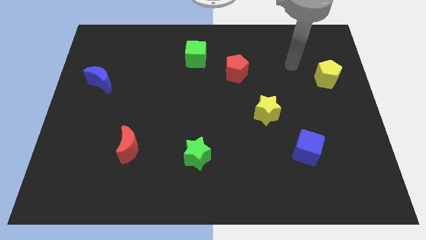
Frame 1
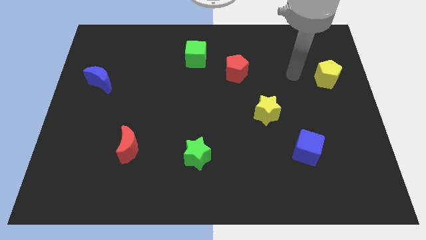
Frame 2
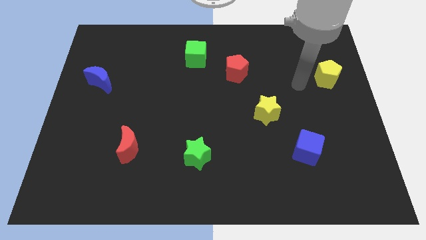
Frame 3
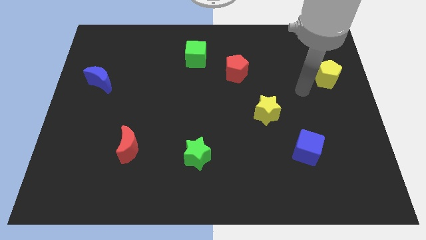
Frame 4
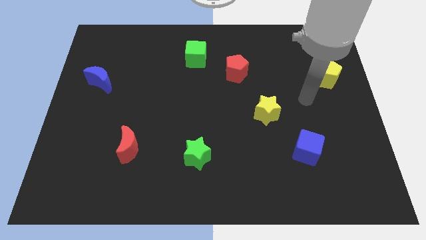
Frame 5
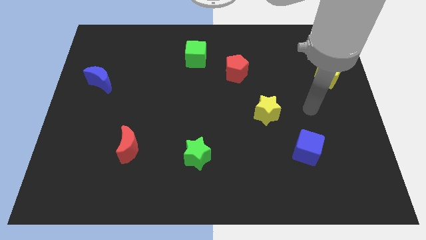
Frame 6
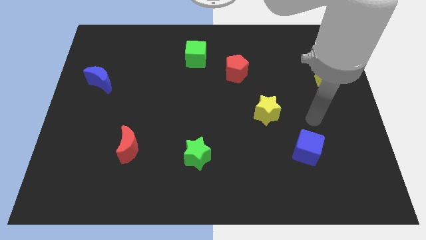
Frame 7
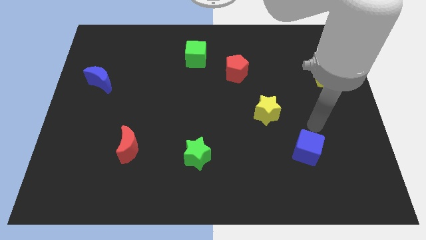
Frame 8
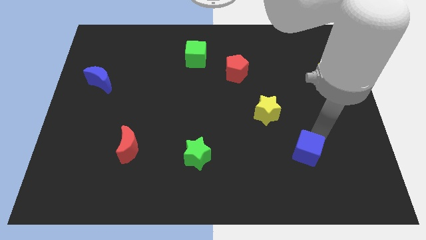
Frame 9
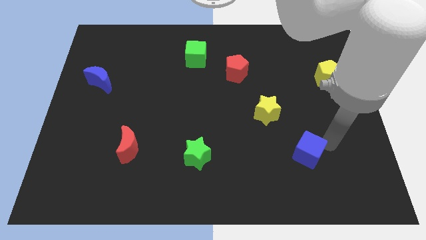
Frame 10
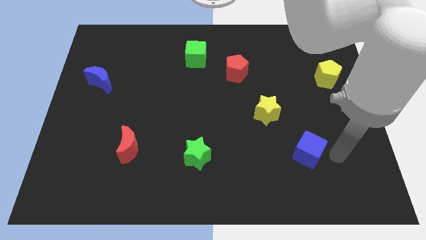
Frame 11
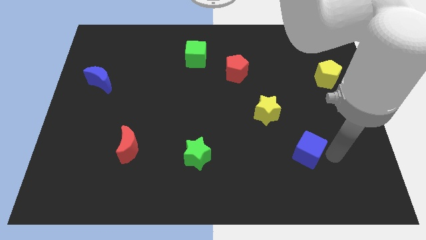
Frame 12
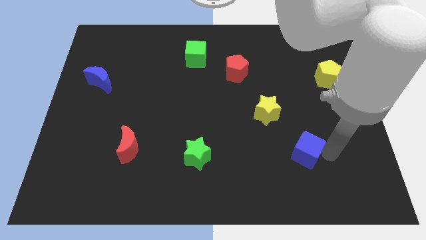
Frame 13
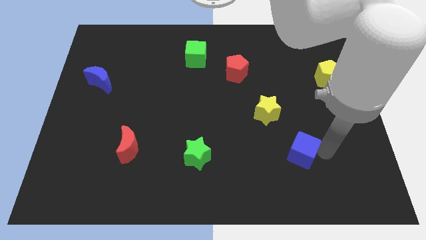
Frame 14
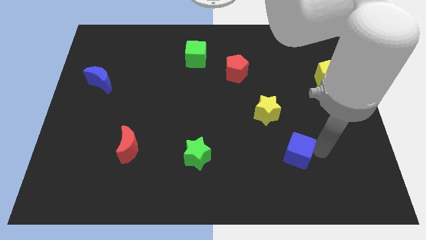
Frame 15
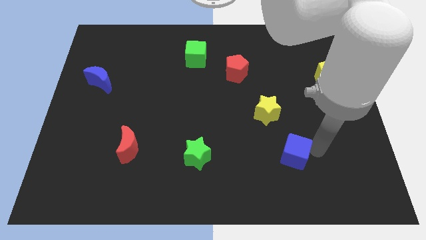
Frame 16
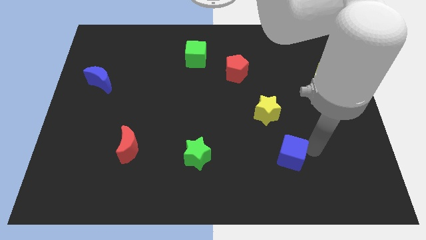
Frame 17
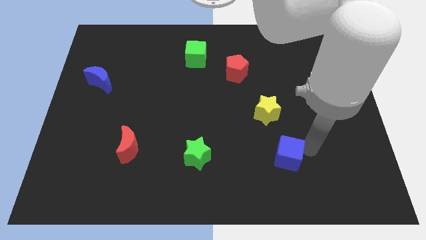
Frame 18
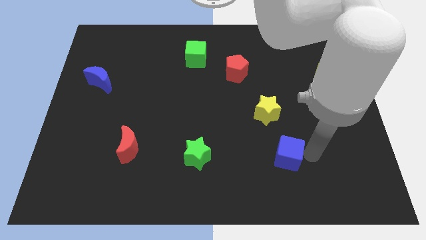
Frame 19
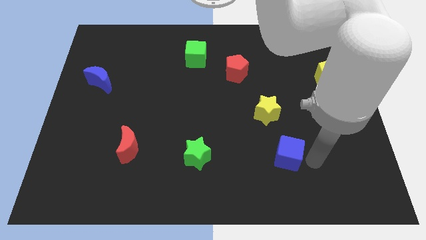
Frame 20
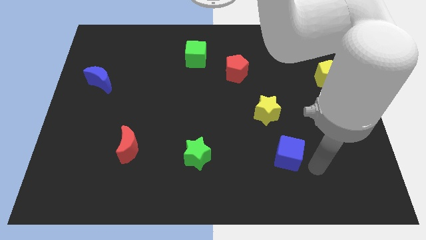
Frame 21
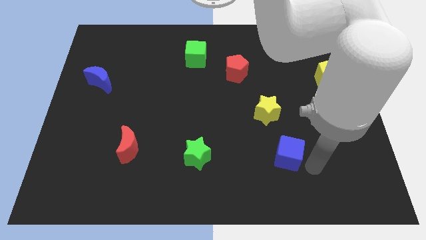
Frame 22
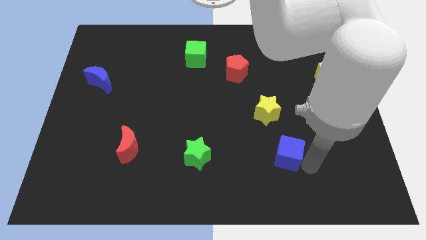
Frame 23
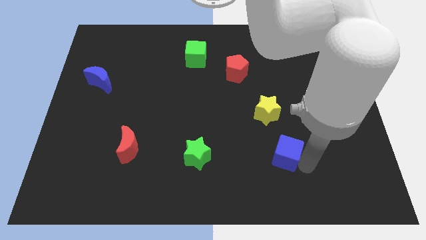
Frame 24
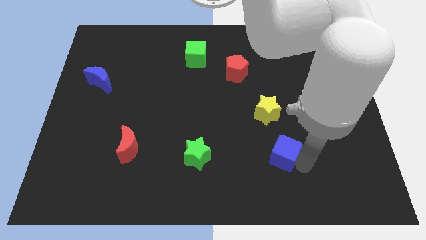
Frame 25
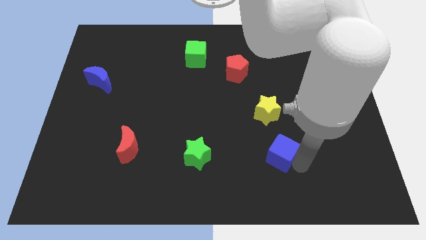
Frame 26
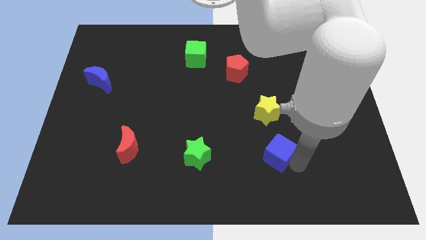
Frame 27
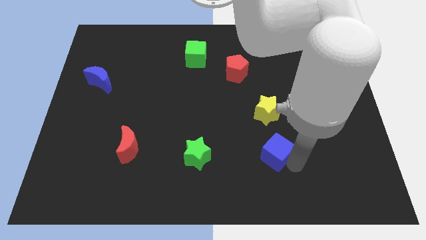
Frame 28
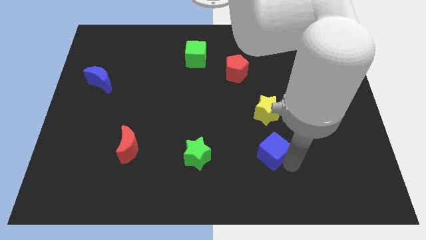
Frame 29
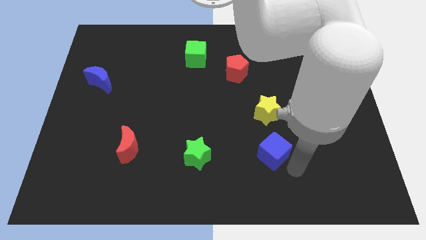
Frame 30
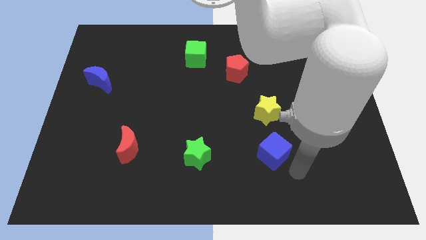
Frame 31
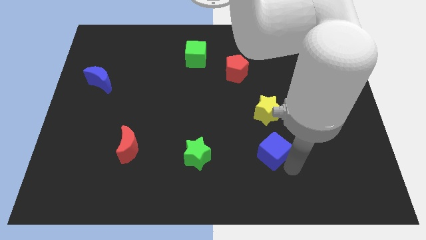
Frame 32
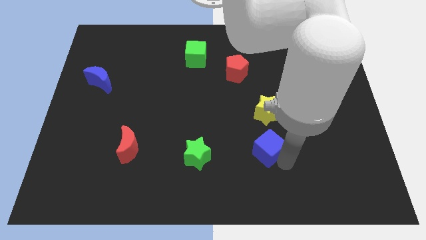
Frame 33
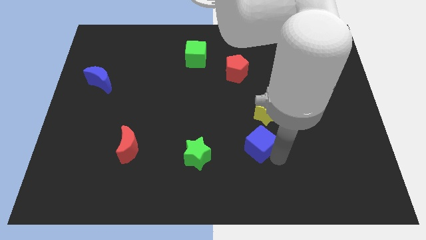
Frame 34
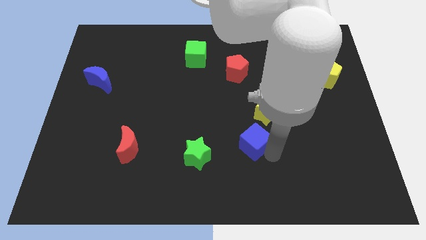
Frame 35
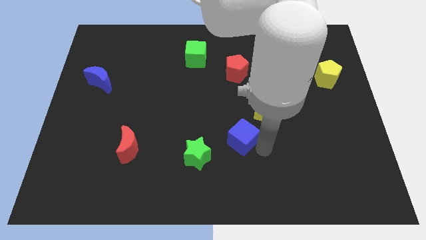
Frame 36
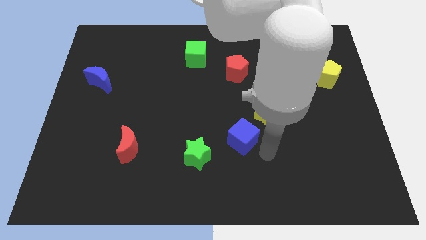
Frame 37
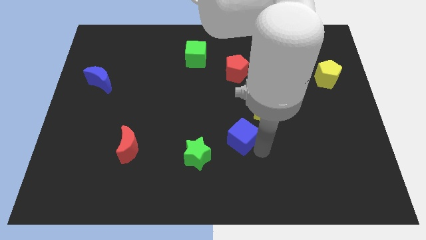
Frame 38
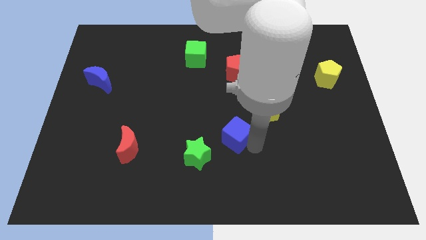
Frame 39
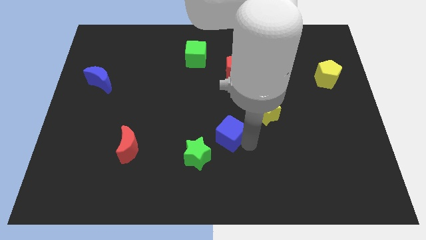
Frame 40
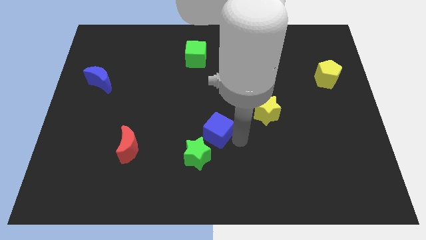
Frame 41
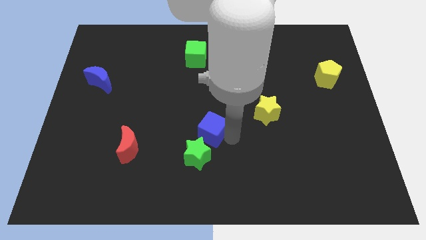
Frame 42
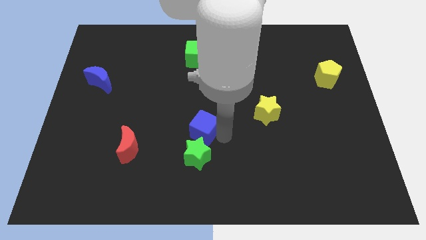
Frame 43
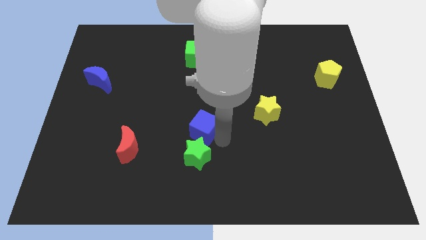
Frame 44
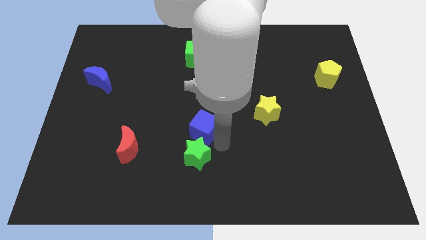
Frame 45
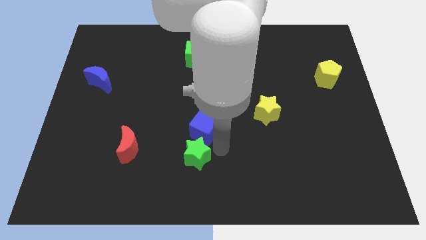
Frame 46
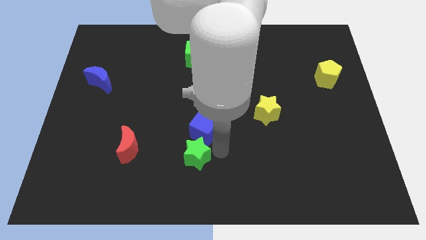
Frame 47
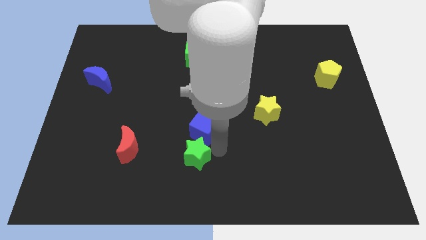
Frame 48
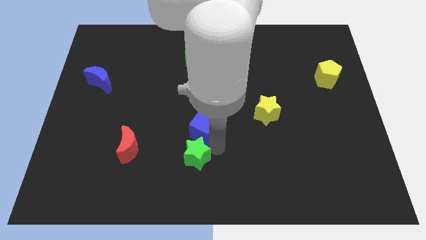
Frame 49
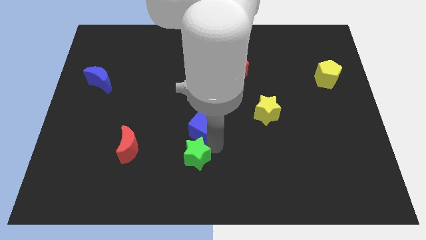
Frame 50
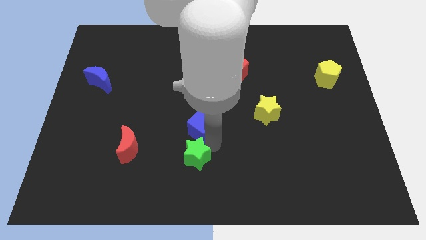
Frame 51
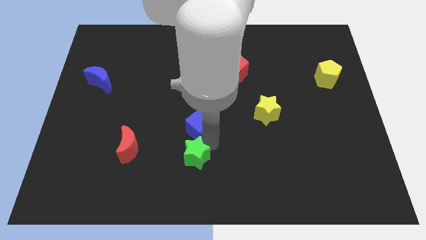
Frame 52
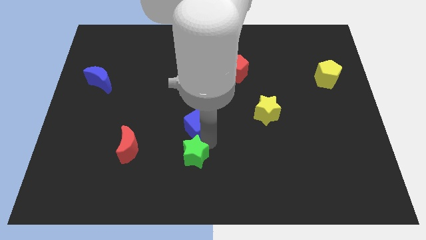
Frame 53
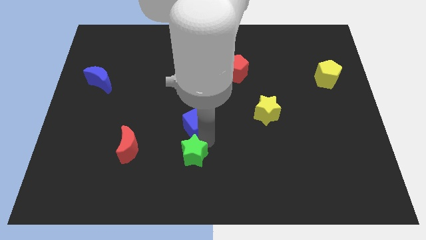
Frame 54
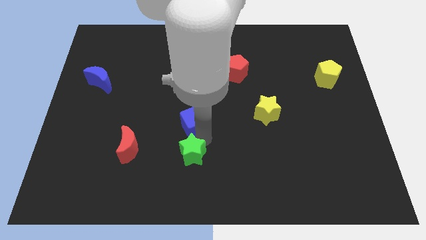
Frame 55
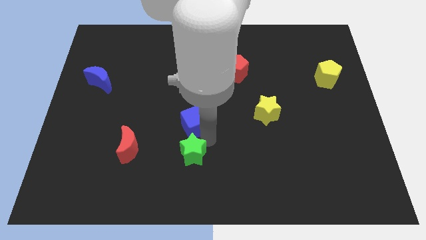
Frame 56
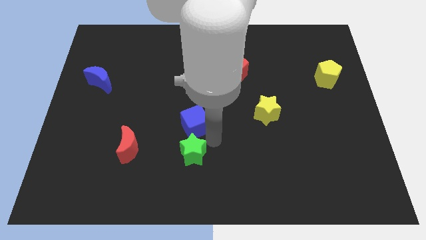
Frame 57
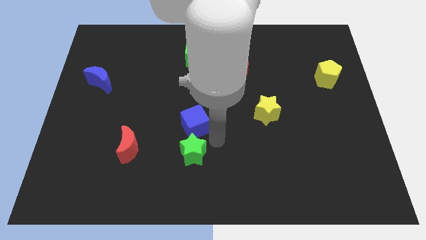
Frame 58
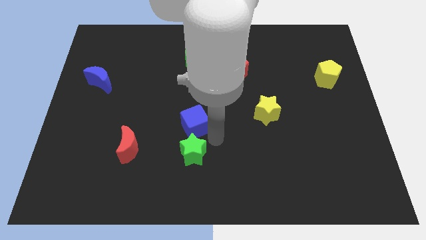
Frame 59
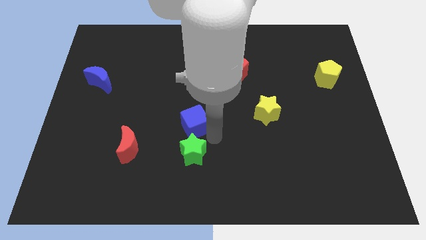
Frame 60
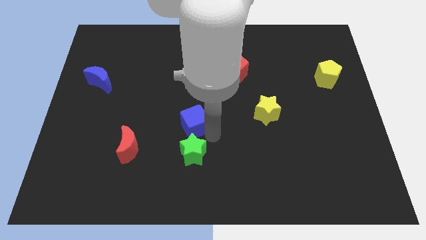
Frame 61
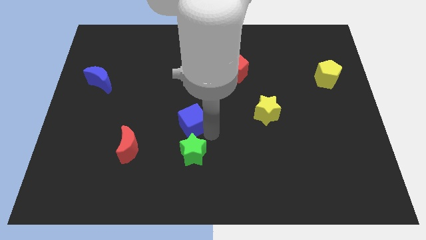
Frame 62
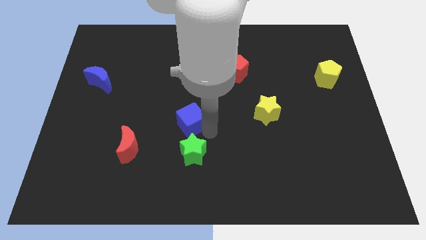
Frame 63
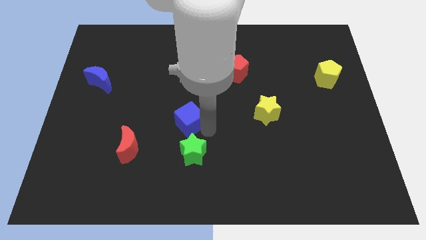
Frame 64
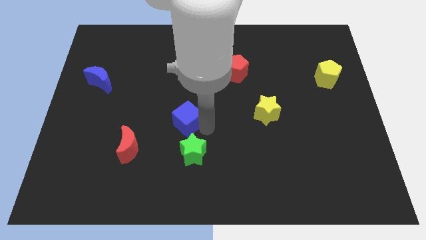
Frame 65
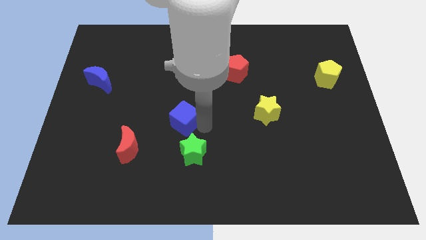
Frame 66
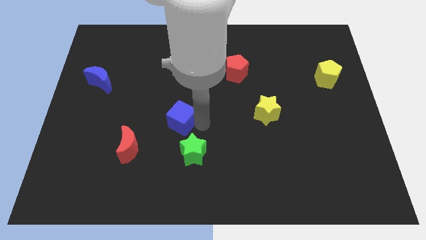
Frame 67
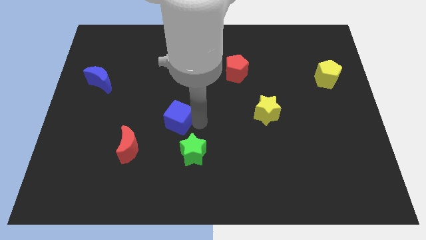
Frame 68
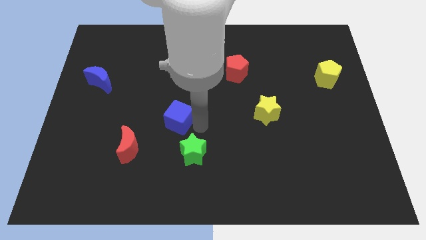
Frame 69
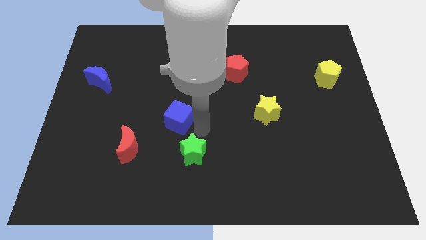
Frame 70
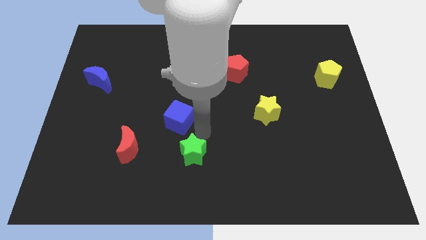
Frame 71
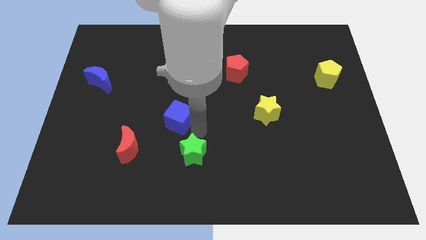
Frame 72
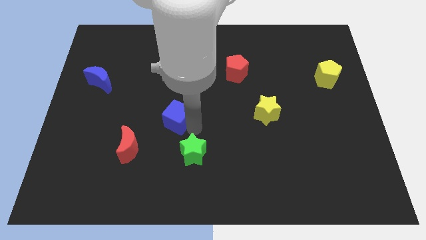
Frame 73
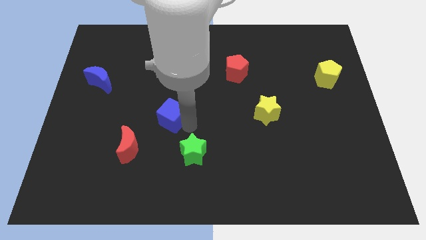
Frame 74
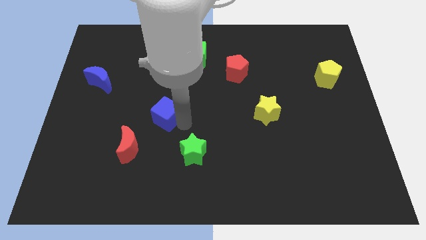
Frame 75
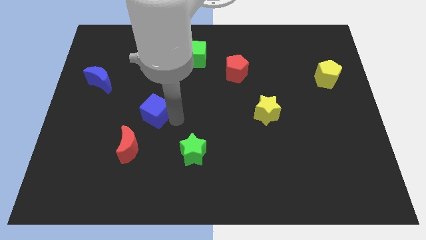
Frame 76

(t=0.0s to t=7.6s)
push the blue cube above the red moon
